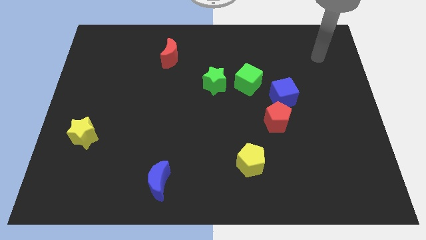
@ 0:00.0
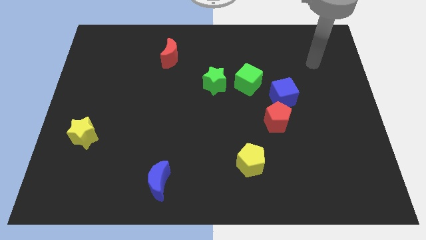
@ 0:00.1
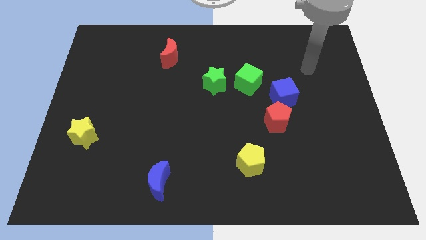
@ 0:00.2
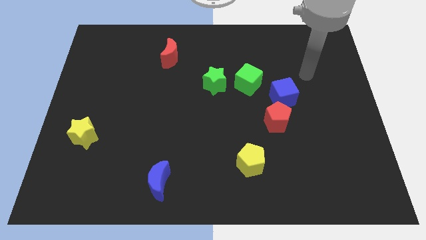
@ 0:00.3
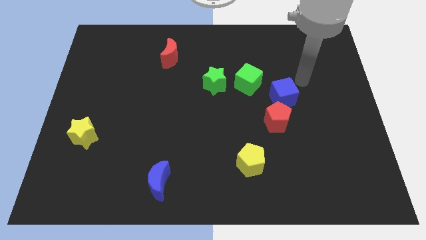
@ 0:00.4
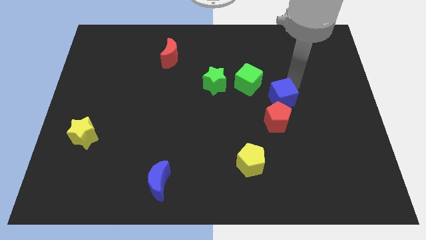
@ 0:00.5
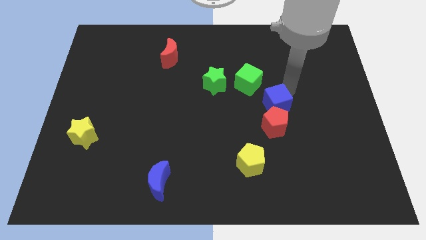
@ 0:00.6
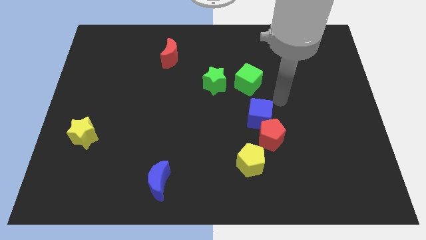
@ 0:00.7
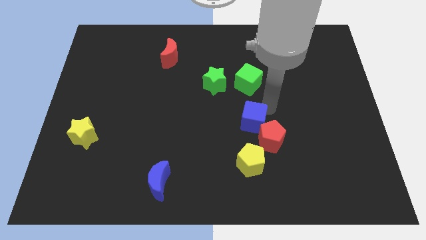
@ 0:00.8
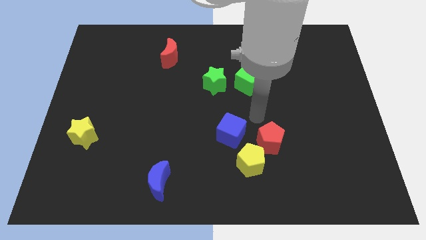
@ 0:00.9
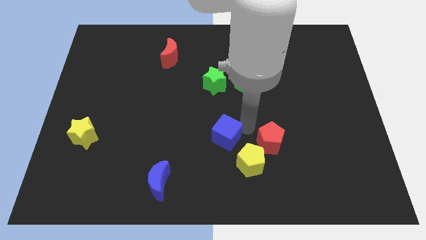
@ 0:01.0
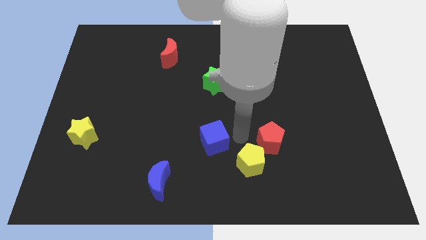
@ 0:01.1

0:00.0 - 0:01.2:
pull the red pentagon apart from the blue cube

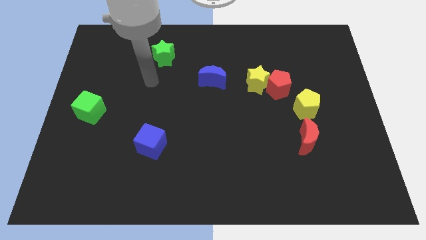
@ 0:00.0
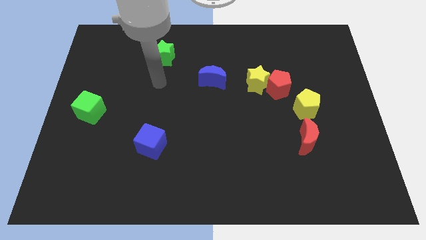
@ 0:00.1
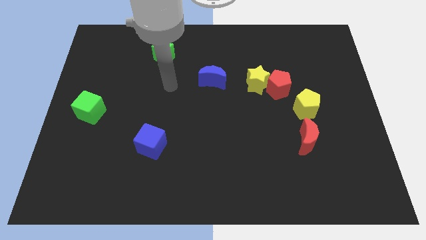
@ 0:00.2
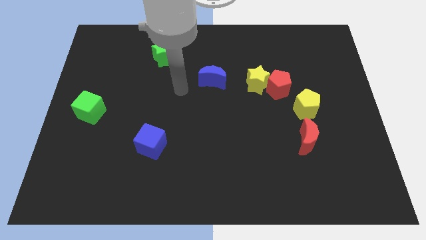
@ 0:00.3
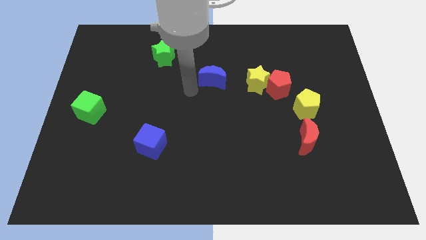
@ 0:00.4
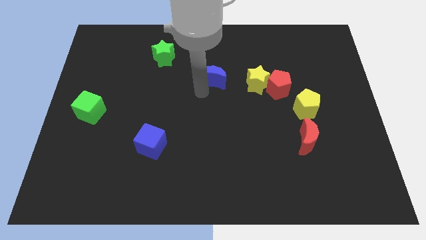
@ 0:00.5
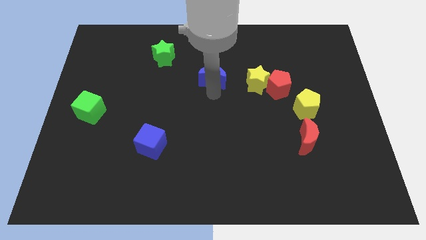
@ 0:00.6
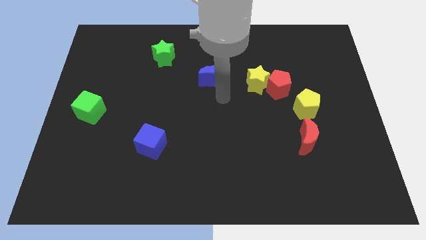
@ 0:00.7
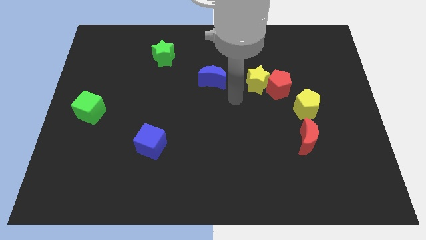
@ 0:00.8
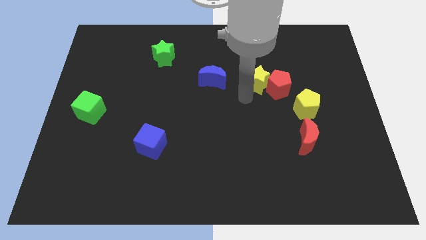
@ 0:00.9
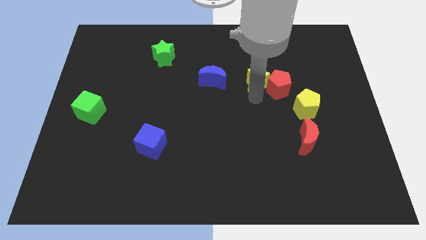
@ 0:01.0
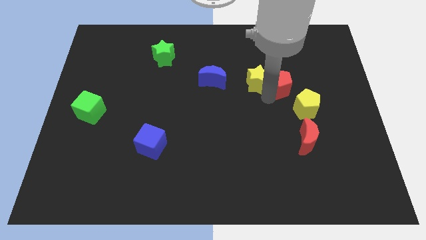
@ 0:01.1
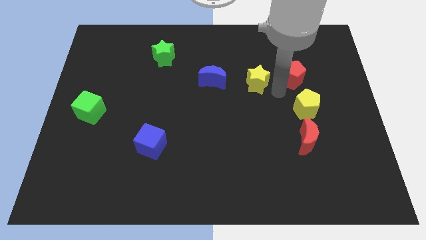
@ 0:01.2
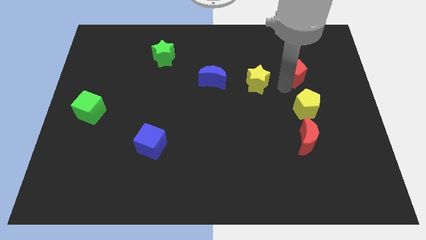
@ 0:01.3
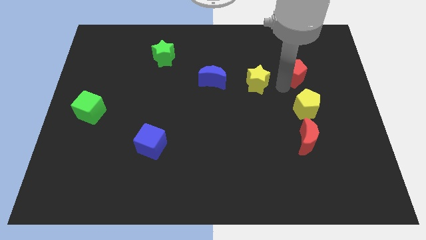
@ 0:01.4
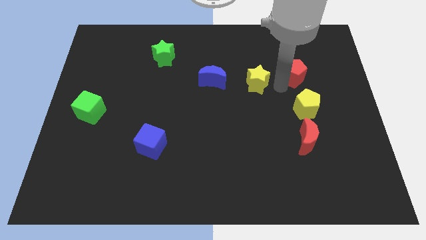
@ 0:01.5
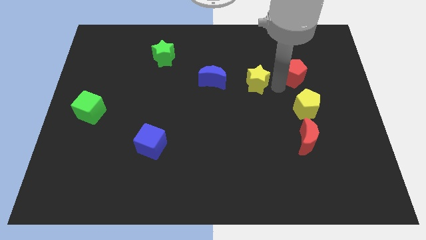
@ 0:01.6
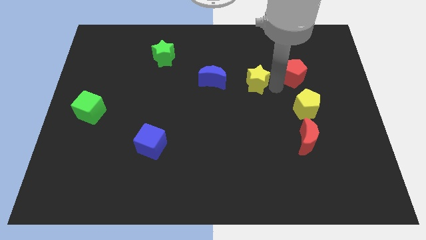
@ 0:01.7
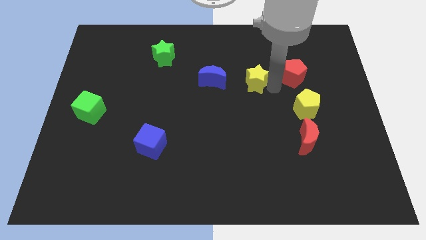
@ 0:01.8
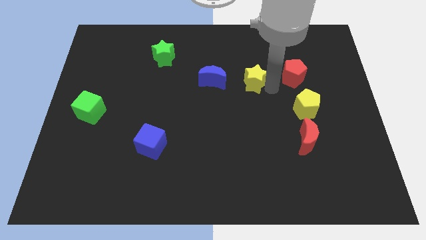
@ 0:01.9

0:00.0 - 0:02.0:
move the yellow star away from the red pentagon

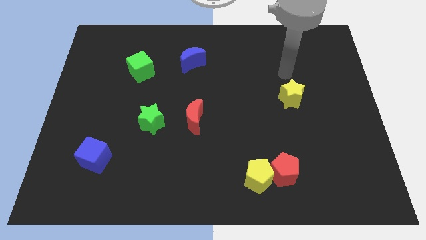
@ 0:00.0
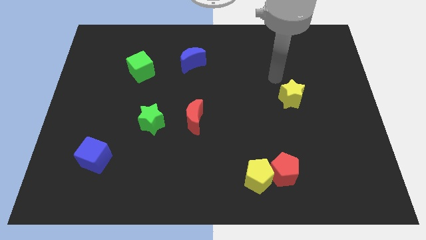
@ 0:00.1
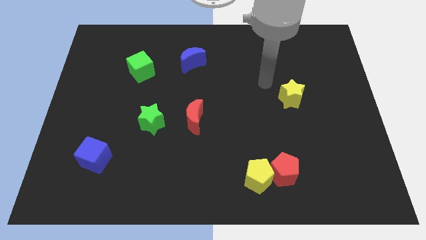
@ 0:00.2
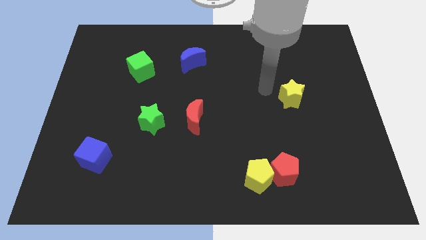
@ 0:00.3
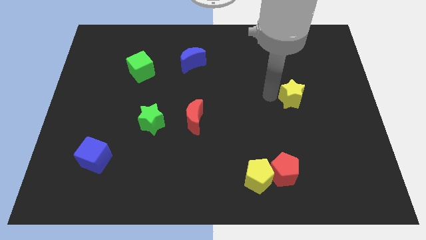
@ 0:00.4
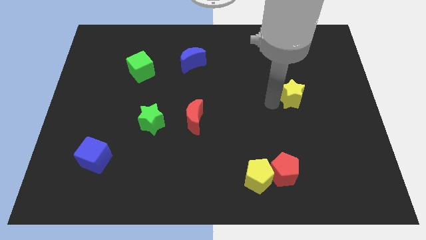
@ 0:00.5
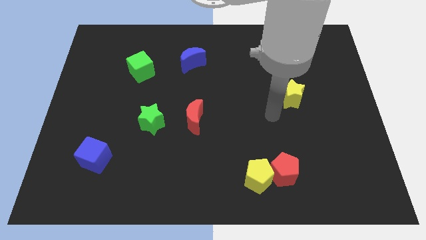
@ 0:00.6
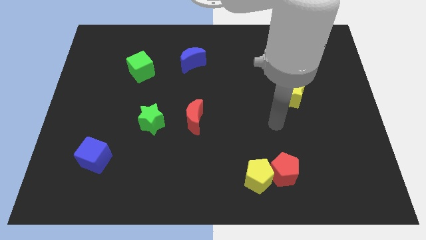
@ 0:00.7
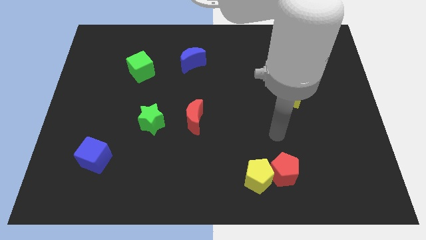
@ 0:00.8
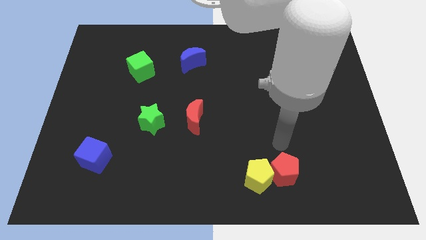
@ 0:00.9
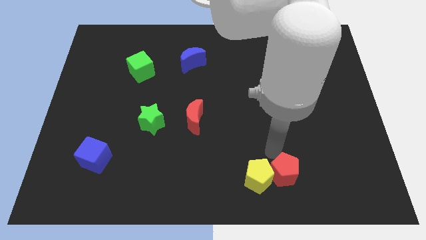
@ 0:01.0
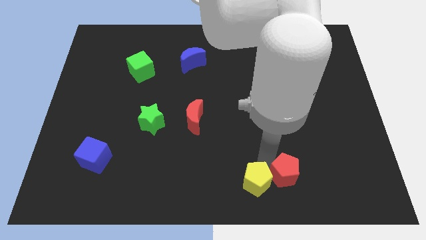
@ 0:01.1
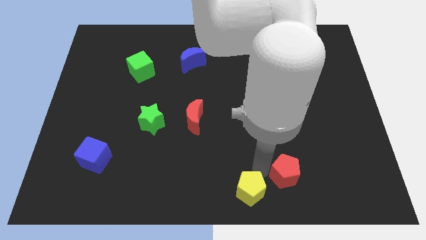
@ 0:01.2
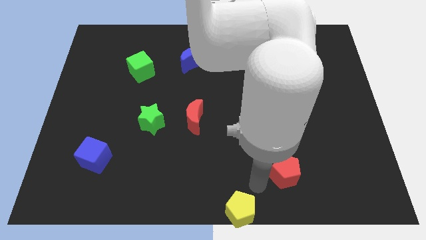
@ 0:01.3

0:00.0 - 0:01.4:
move the red pentagon away from the yellow pentagon

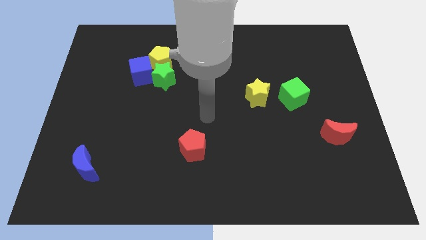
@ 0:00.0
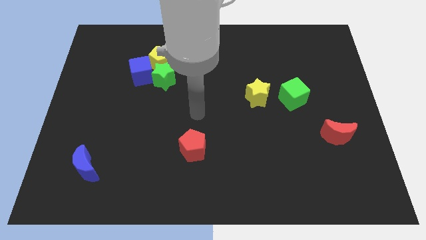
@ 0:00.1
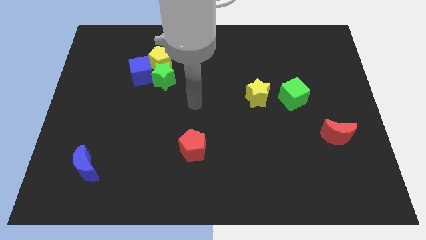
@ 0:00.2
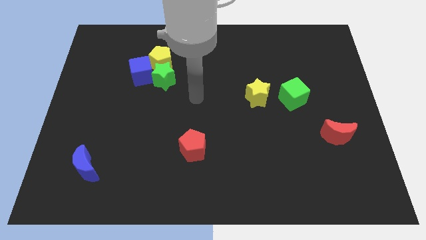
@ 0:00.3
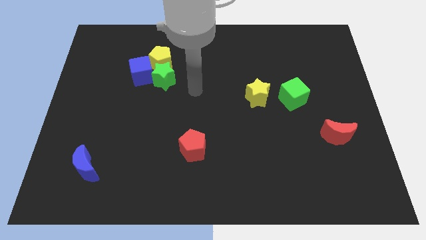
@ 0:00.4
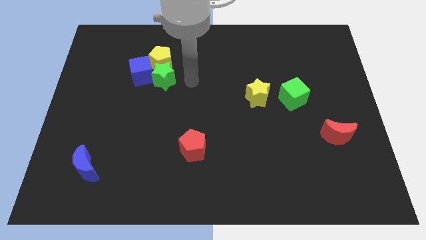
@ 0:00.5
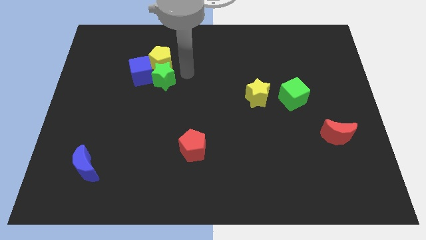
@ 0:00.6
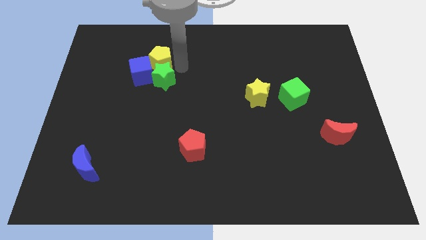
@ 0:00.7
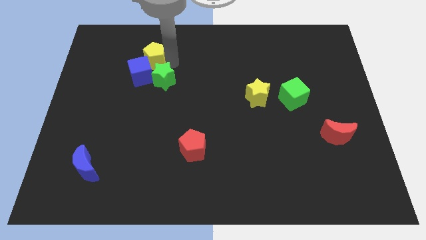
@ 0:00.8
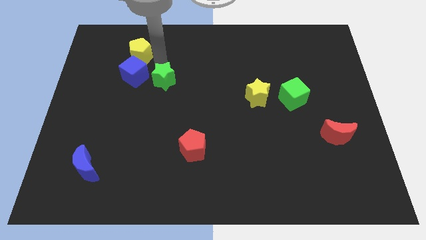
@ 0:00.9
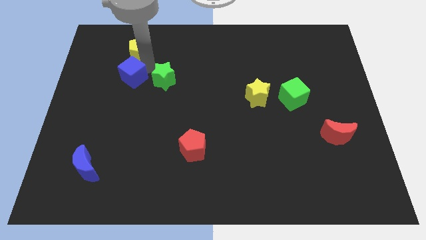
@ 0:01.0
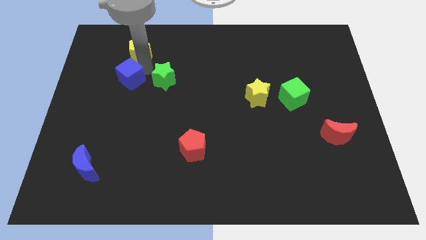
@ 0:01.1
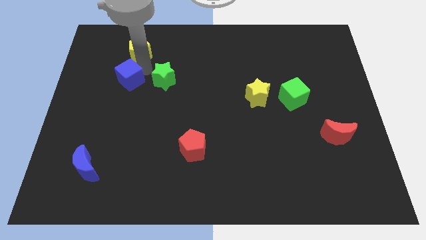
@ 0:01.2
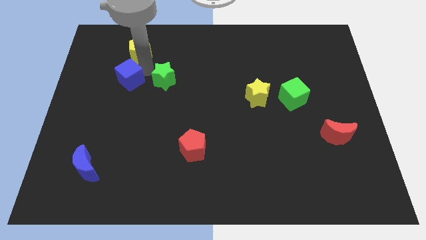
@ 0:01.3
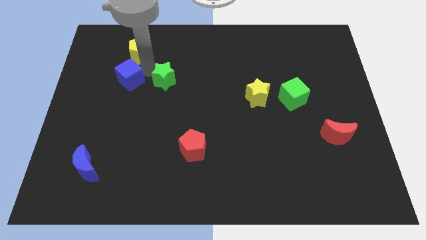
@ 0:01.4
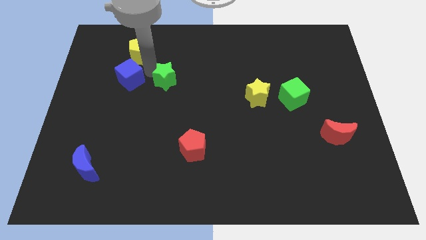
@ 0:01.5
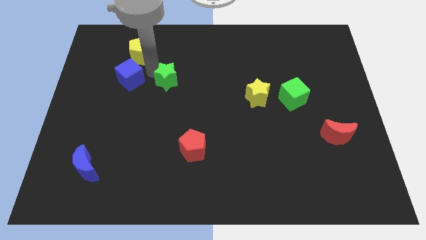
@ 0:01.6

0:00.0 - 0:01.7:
move the green star away from the yellow pentagon and blue cube

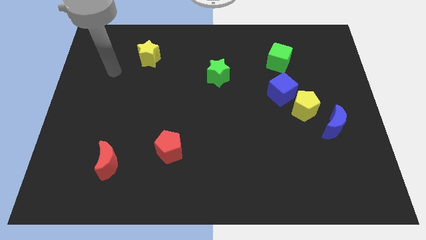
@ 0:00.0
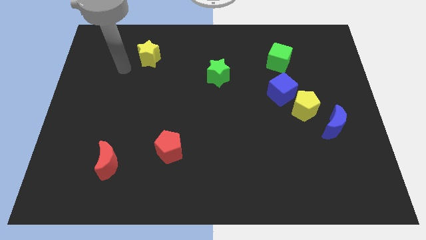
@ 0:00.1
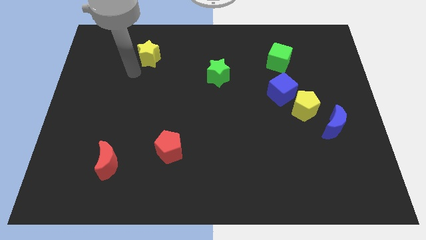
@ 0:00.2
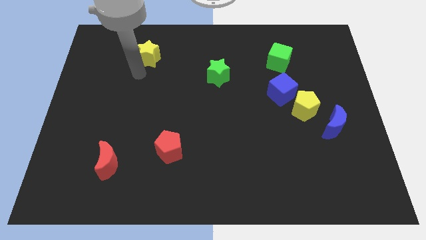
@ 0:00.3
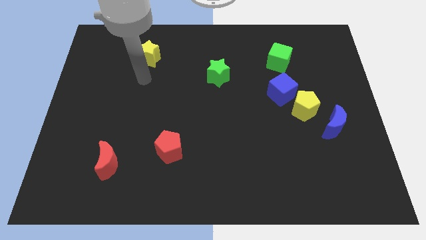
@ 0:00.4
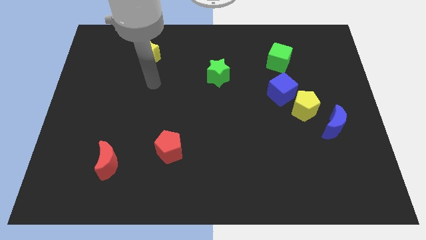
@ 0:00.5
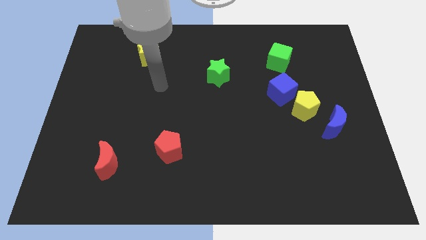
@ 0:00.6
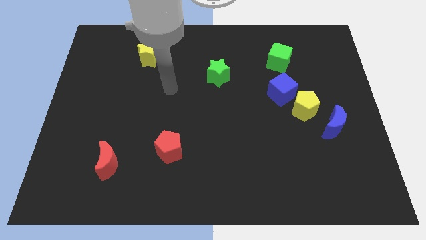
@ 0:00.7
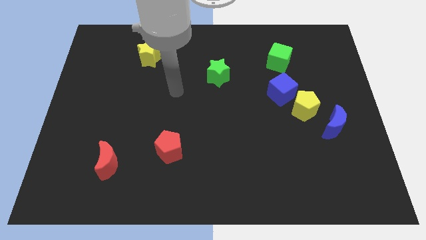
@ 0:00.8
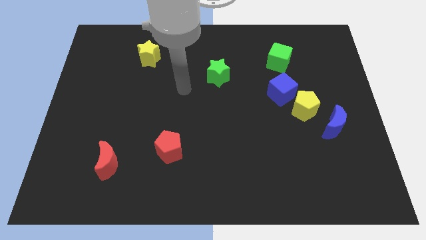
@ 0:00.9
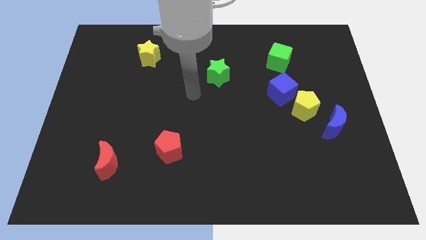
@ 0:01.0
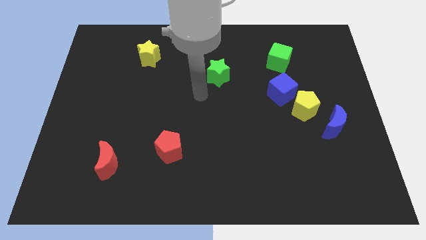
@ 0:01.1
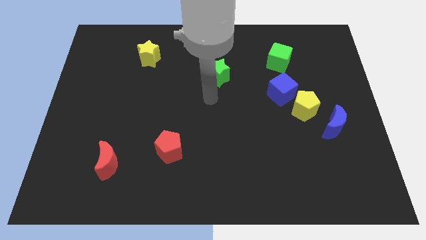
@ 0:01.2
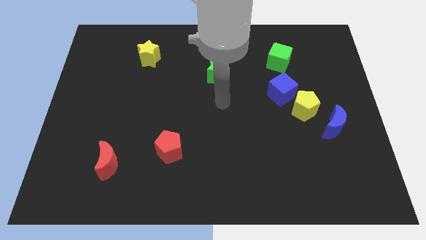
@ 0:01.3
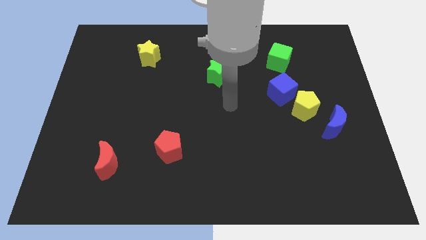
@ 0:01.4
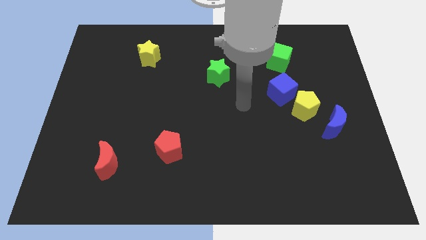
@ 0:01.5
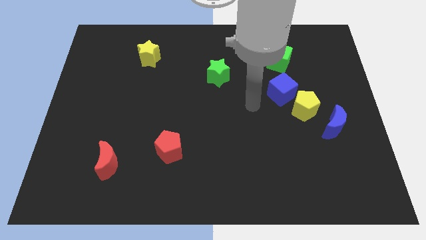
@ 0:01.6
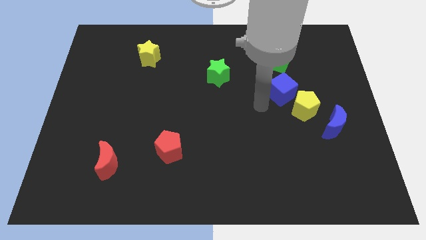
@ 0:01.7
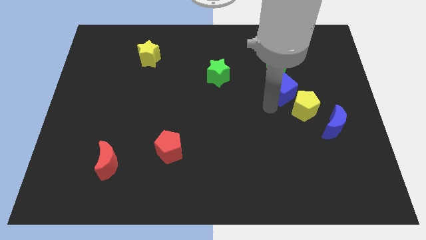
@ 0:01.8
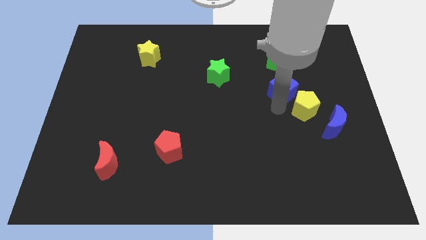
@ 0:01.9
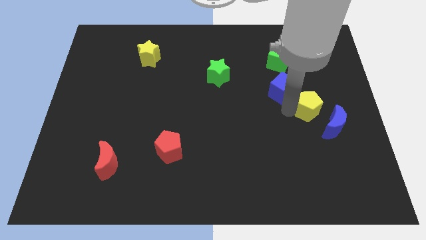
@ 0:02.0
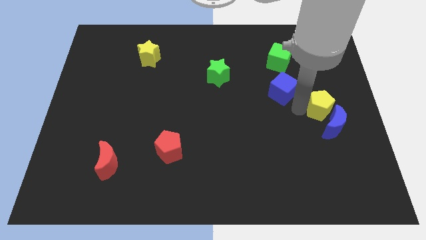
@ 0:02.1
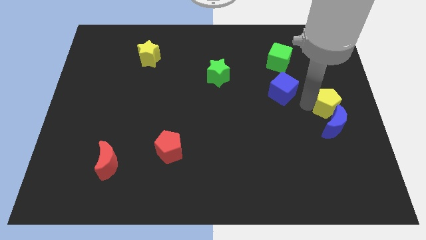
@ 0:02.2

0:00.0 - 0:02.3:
separate the blue cube from the yellow pentagon

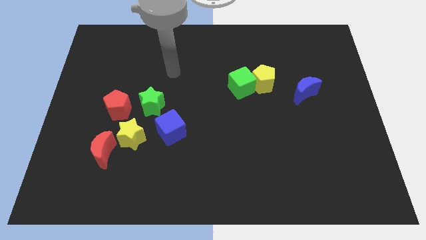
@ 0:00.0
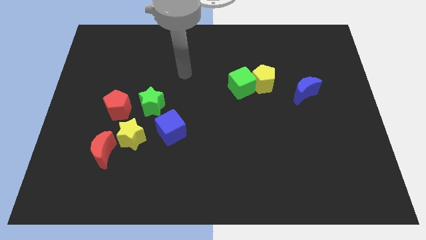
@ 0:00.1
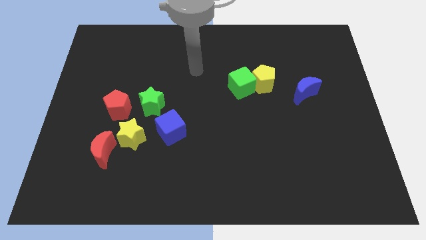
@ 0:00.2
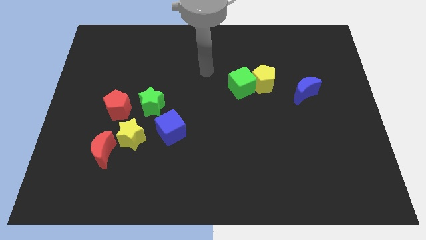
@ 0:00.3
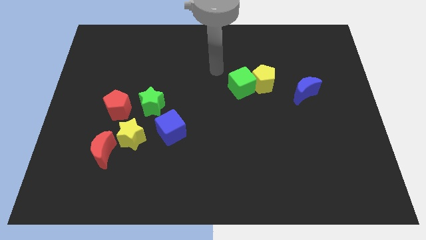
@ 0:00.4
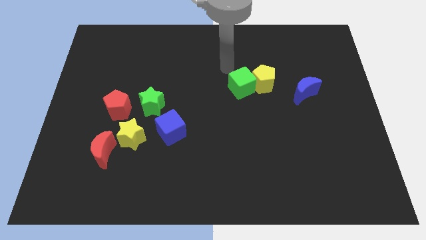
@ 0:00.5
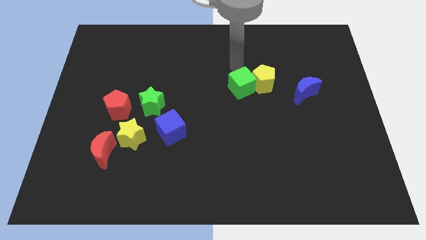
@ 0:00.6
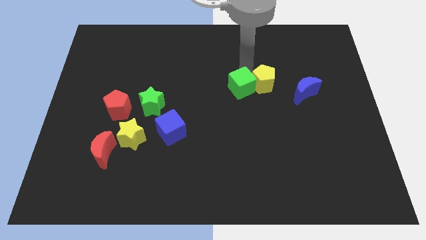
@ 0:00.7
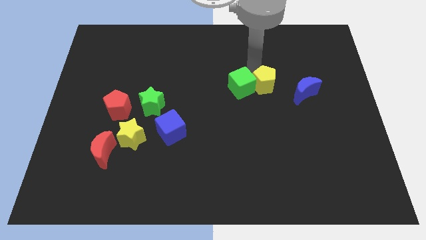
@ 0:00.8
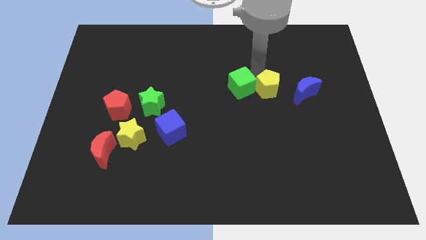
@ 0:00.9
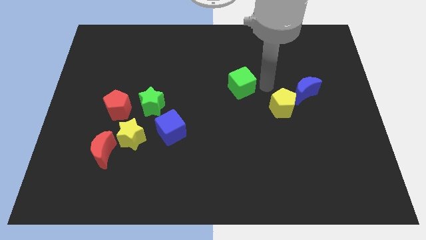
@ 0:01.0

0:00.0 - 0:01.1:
separate the green cube from the yellow pentagon
